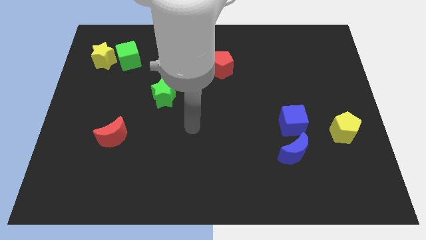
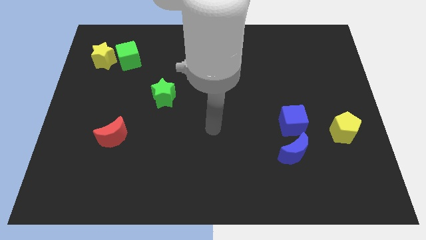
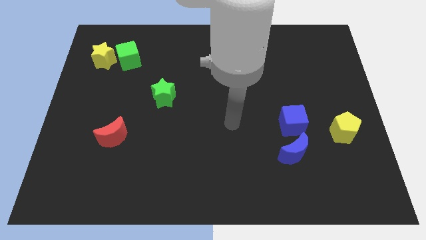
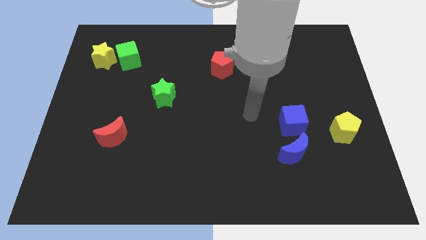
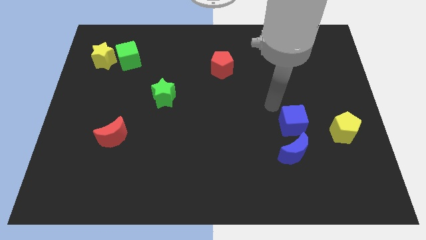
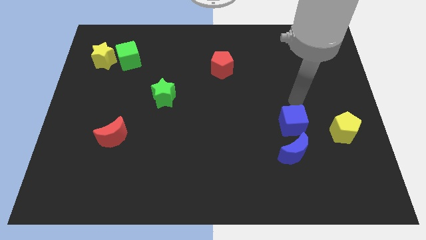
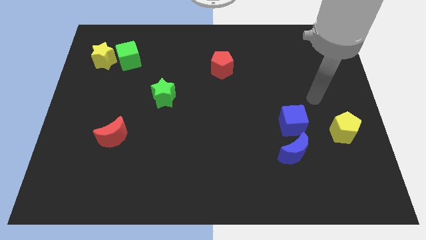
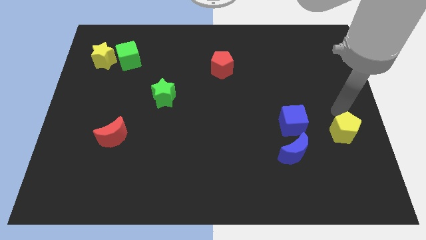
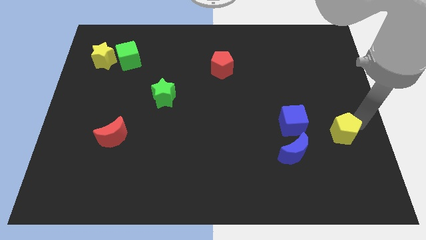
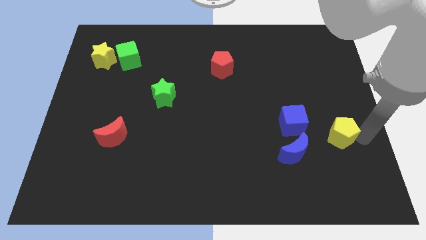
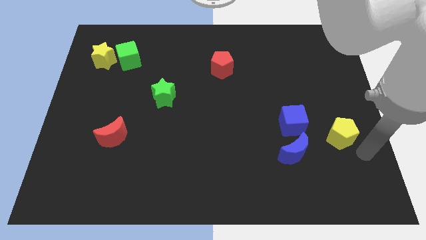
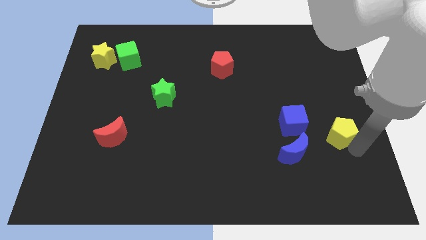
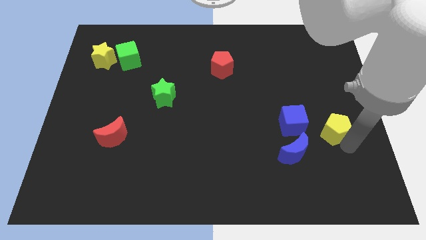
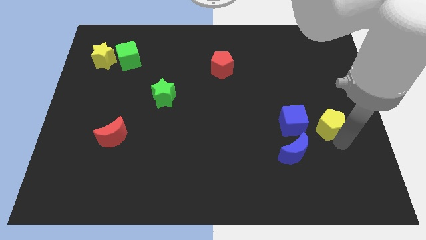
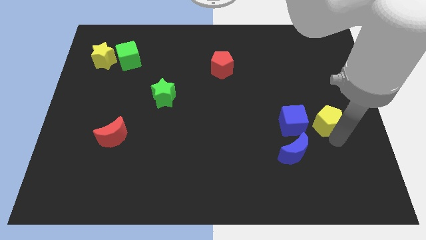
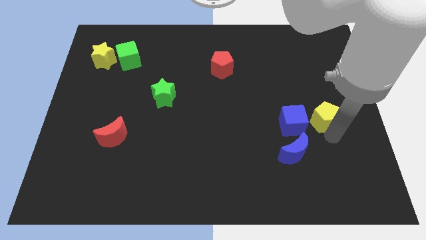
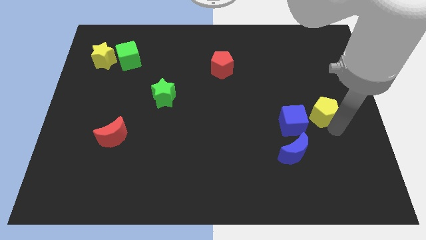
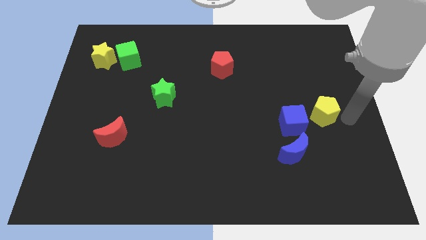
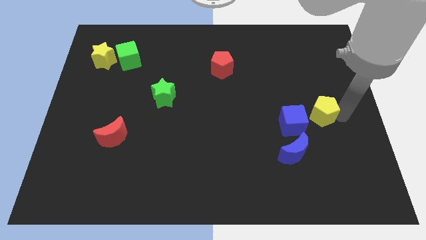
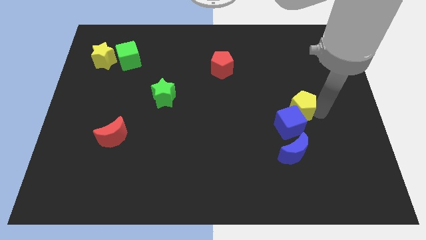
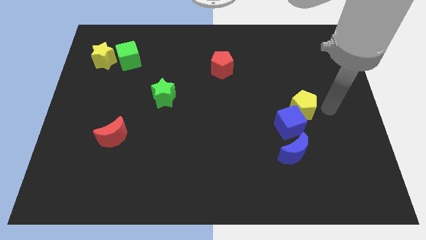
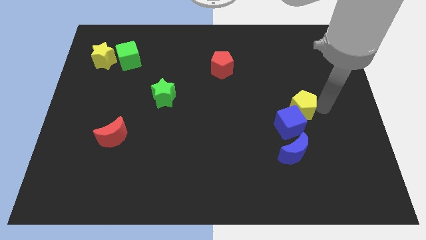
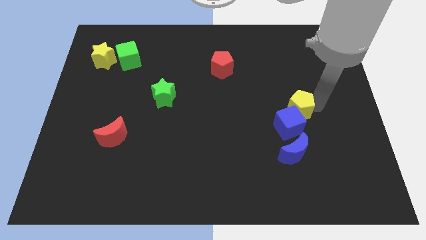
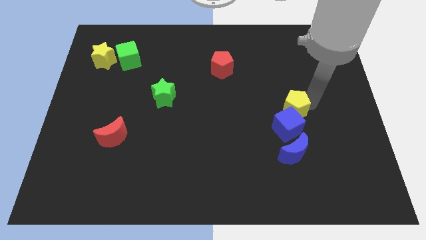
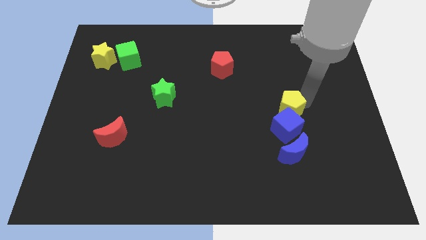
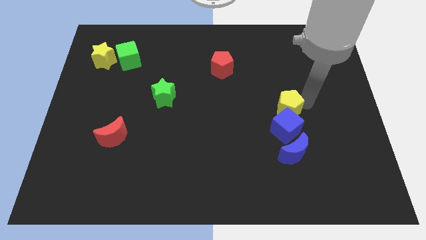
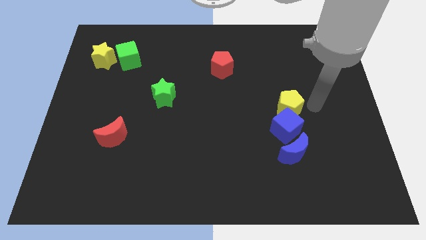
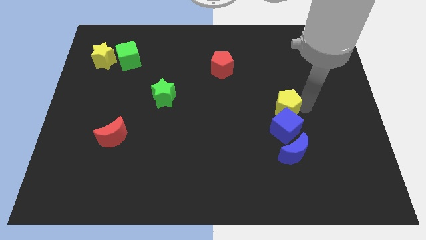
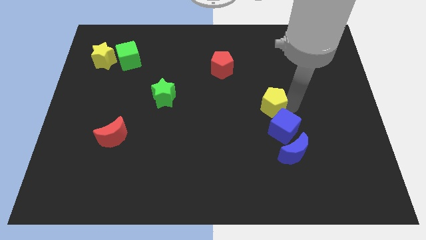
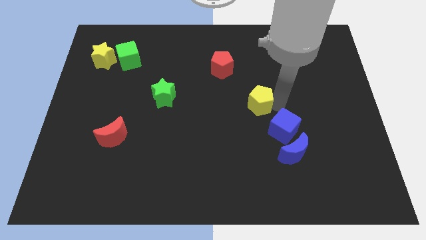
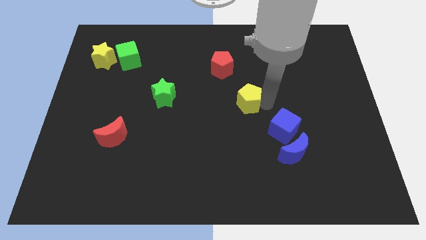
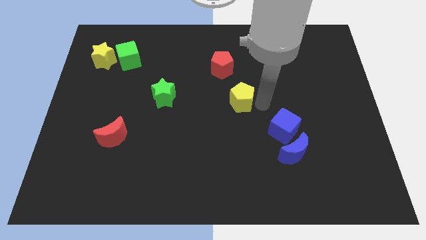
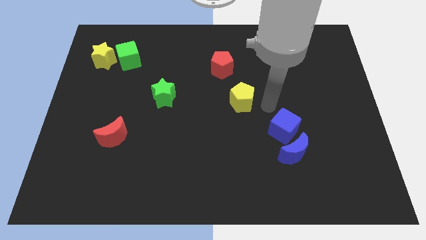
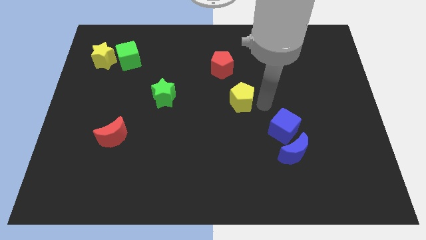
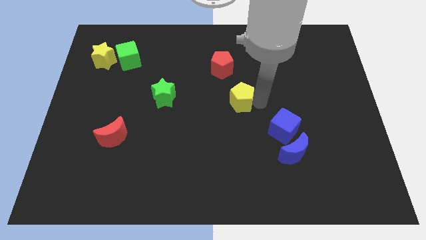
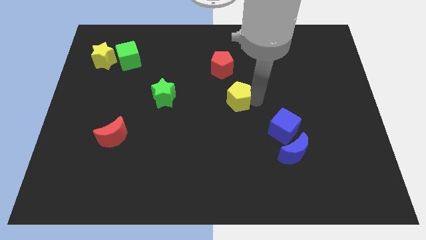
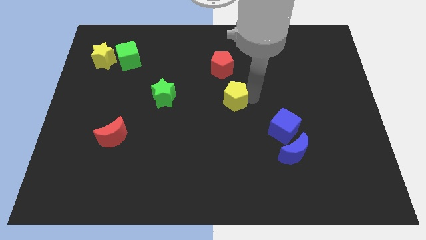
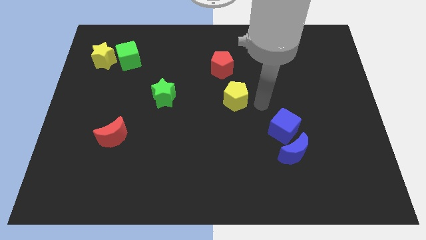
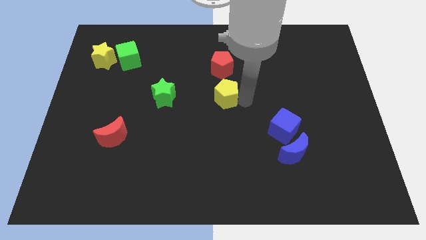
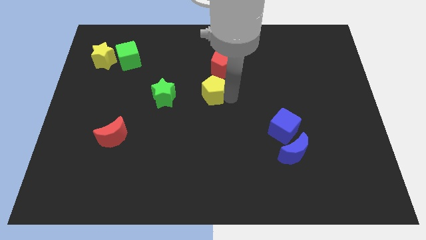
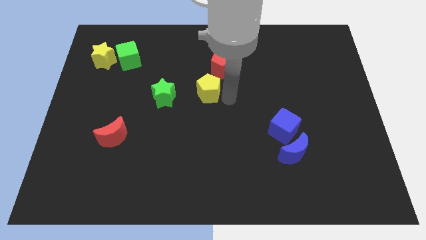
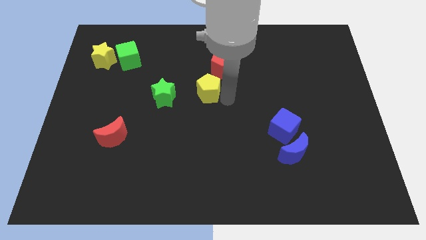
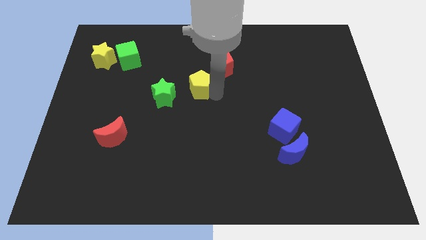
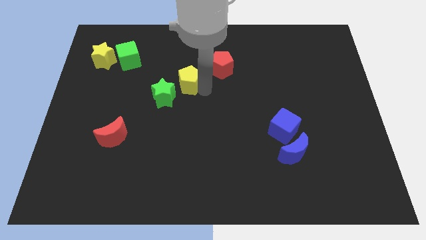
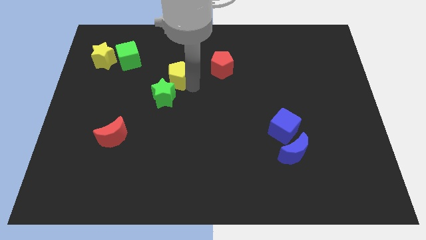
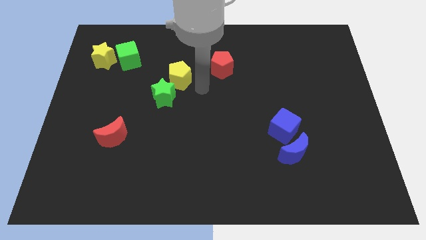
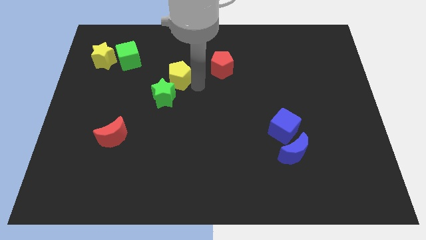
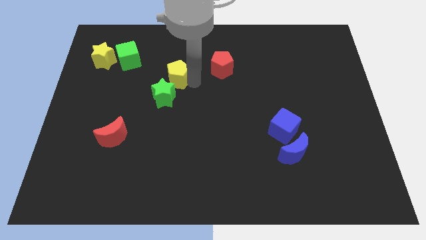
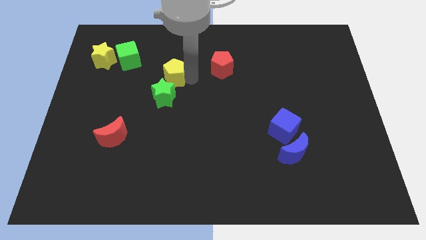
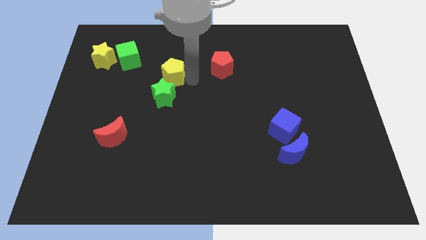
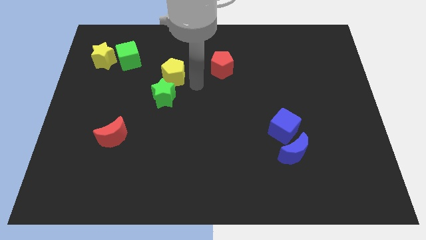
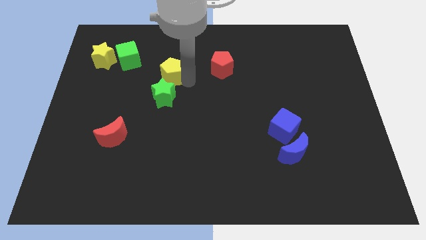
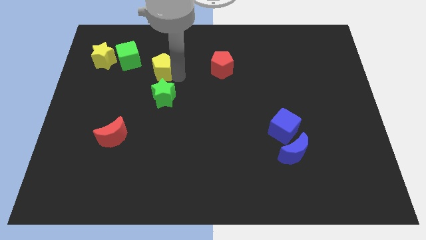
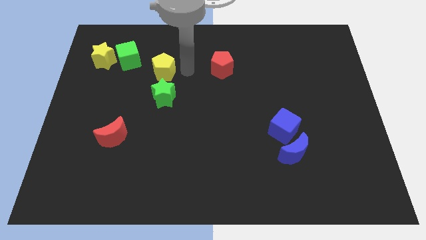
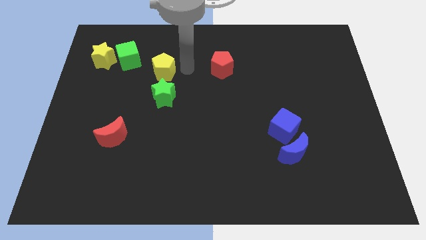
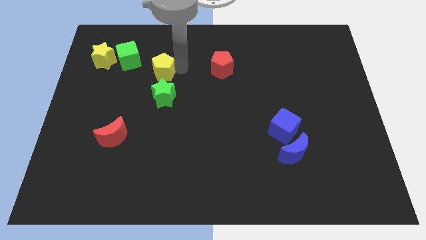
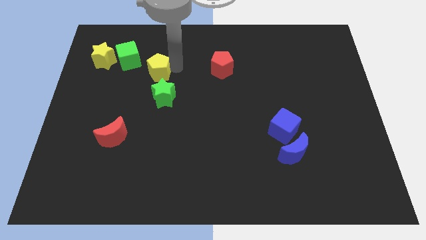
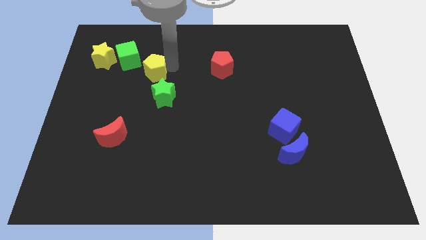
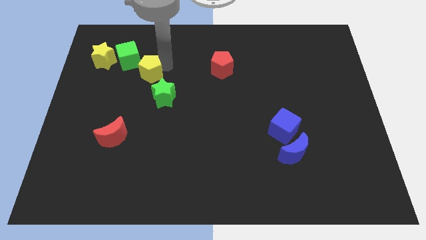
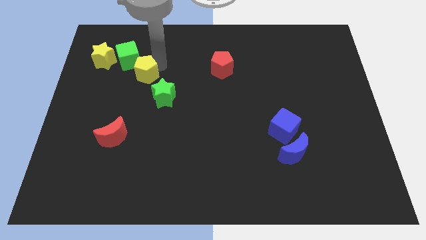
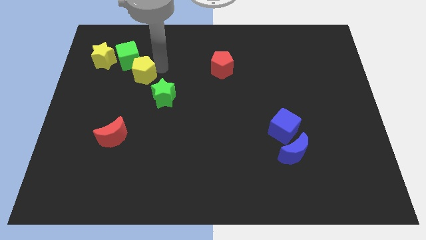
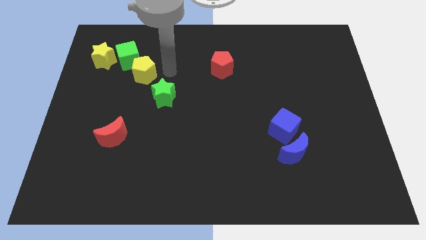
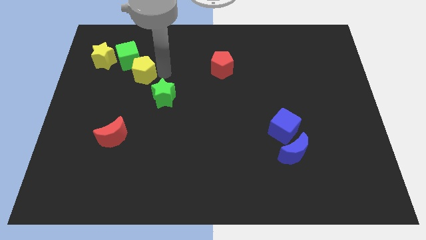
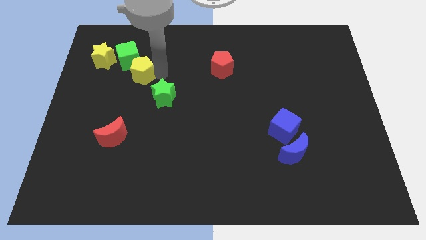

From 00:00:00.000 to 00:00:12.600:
push the yellow pentagon diagonally down and to the right of the yellow star
